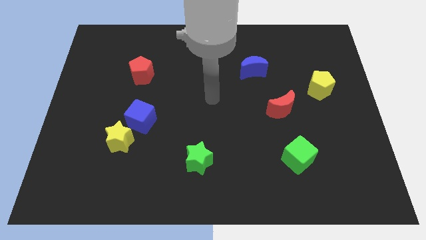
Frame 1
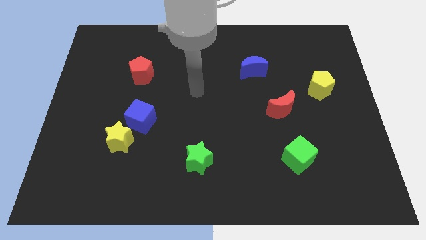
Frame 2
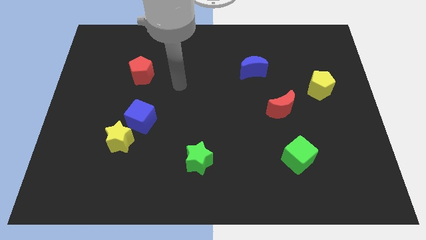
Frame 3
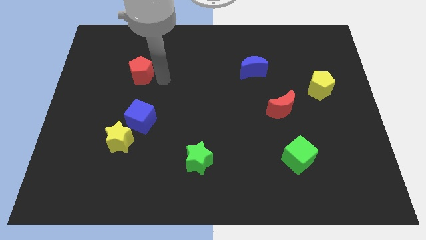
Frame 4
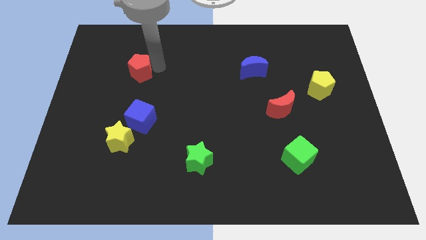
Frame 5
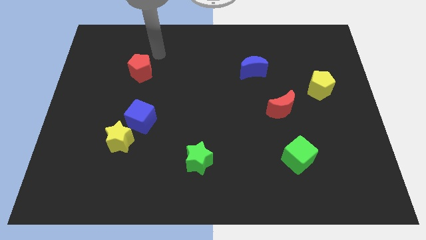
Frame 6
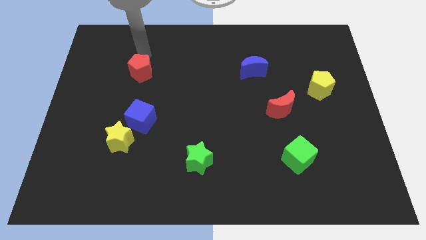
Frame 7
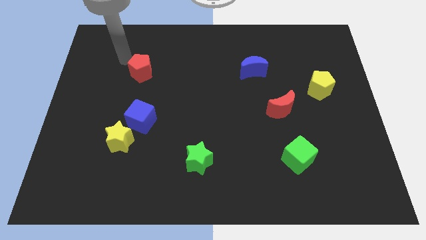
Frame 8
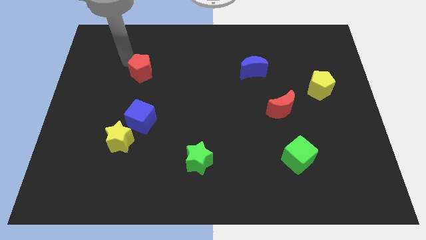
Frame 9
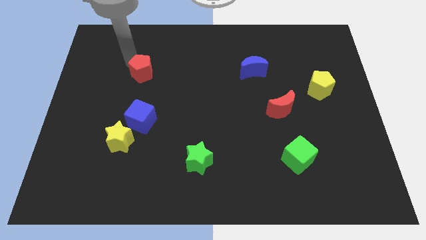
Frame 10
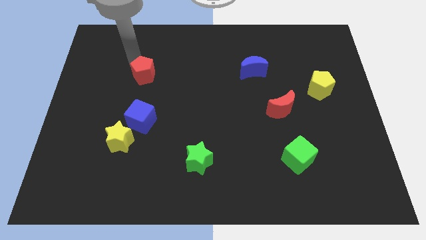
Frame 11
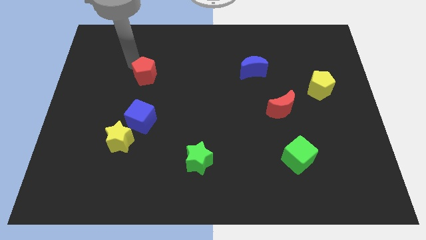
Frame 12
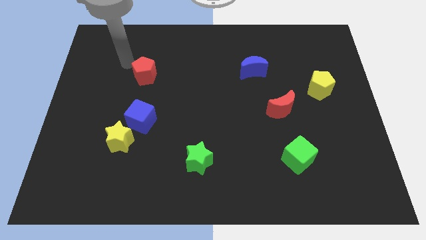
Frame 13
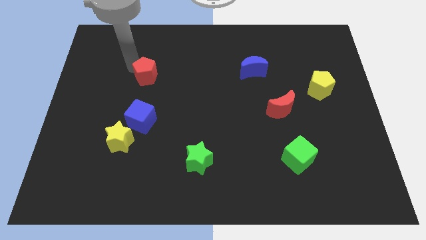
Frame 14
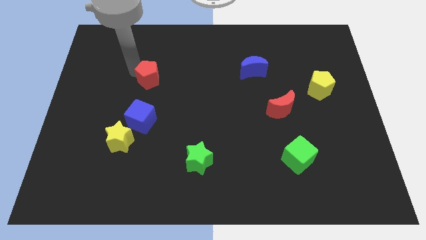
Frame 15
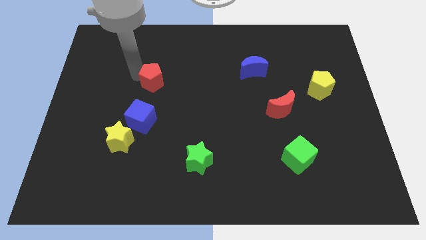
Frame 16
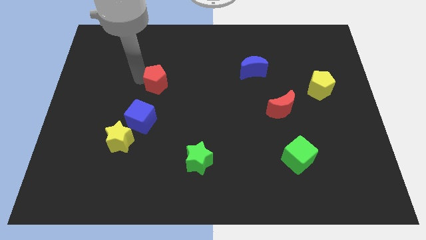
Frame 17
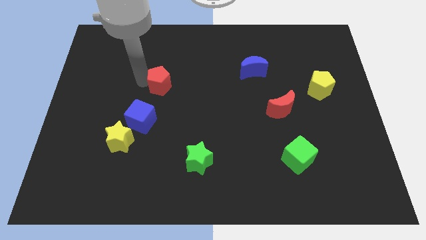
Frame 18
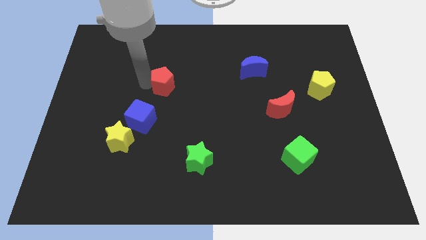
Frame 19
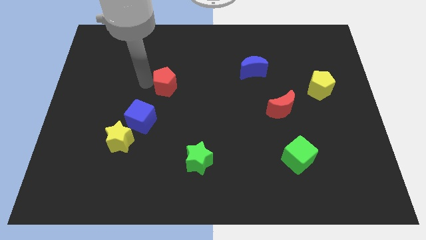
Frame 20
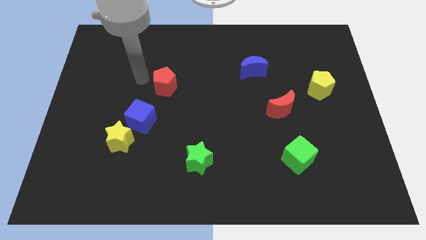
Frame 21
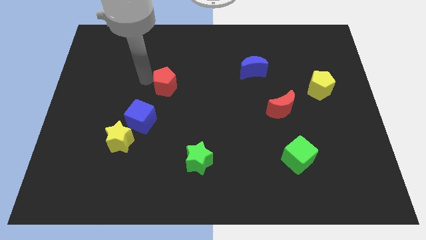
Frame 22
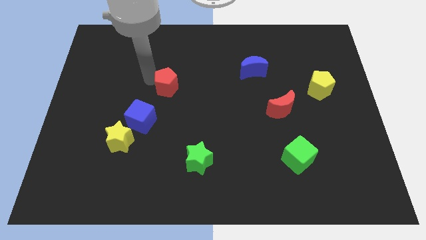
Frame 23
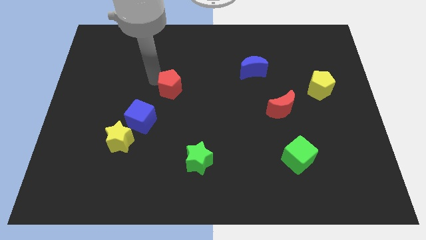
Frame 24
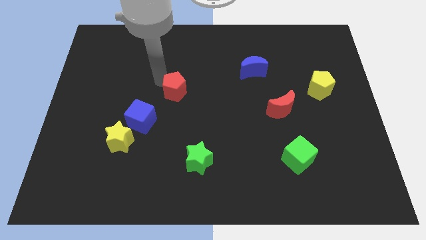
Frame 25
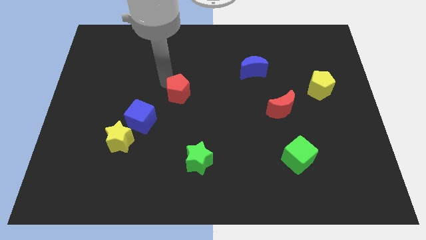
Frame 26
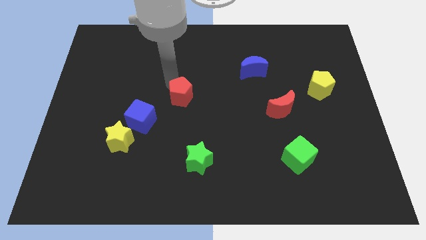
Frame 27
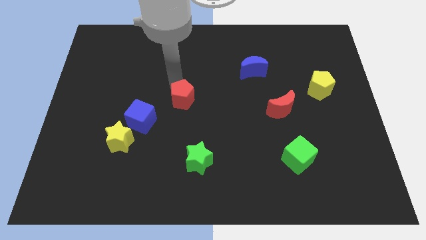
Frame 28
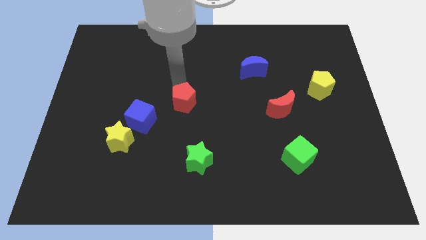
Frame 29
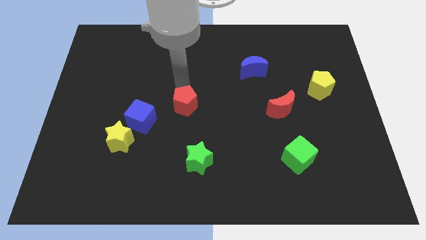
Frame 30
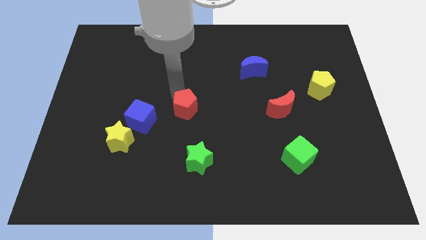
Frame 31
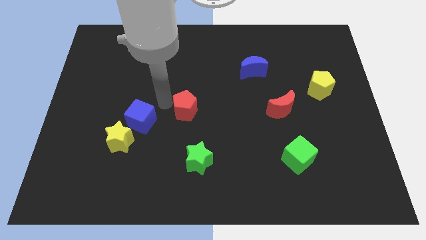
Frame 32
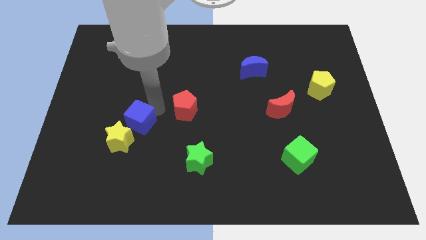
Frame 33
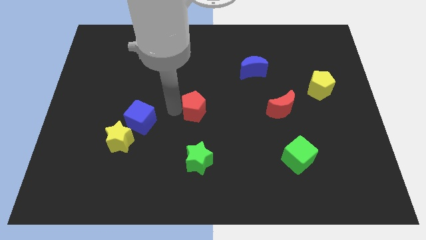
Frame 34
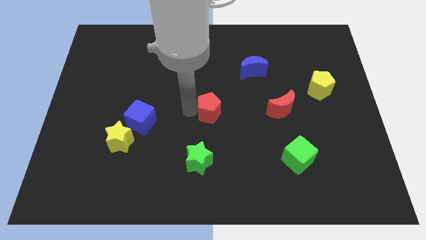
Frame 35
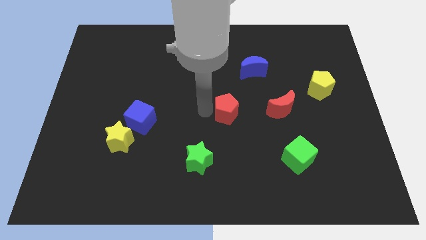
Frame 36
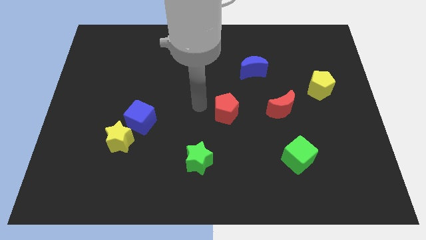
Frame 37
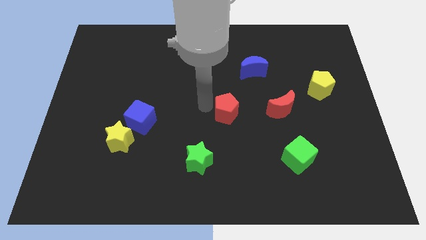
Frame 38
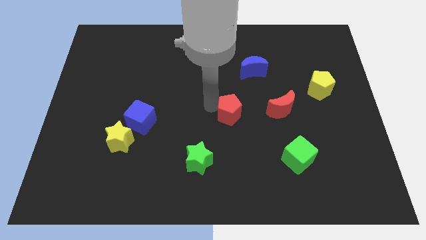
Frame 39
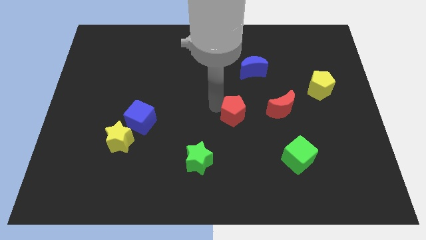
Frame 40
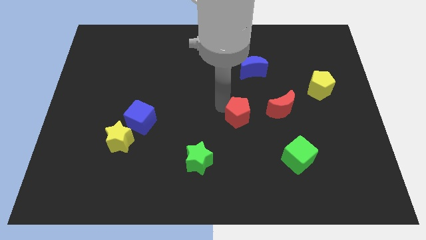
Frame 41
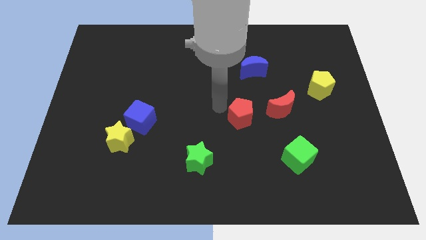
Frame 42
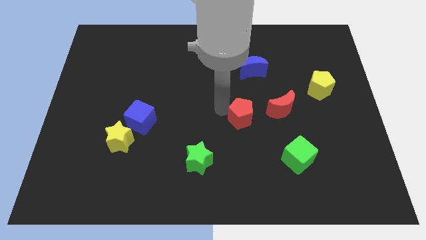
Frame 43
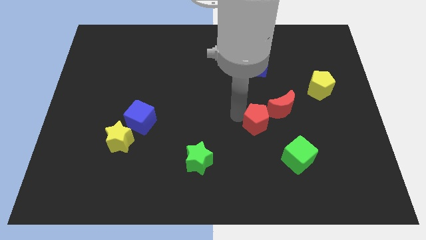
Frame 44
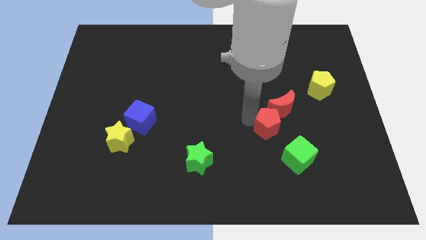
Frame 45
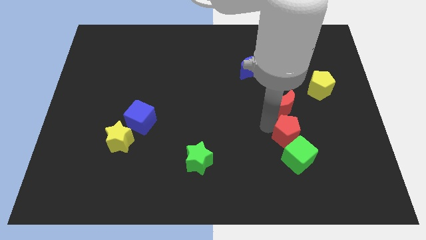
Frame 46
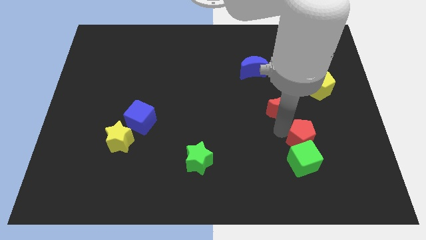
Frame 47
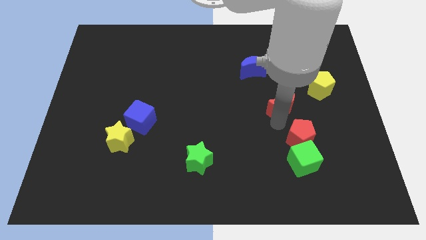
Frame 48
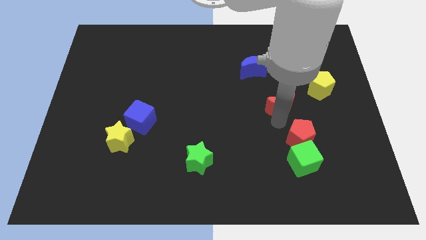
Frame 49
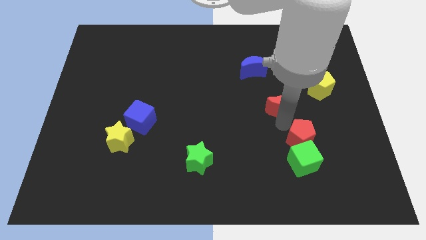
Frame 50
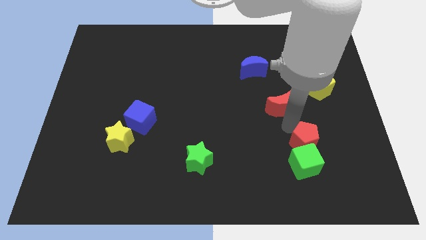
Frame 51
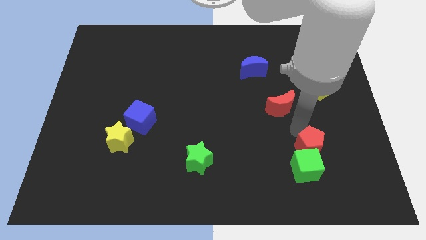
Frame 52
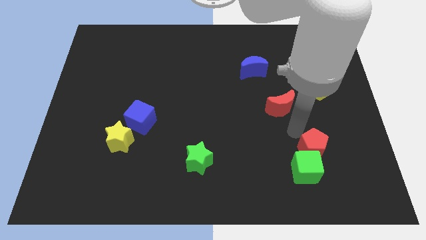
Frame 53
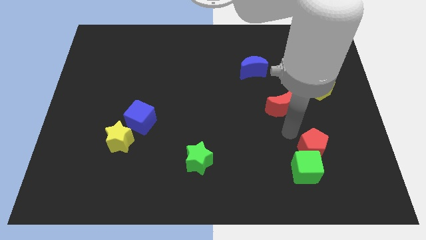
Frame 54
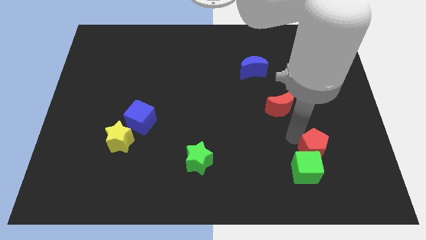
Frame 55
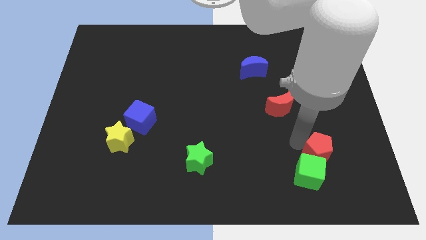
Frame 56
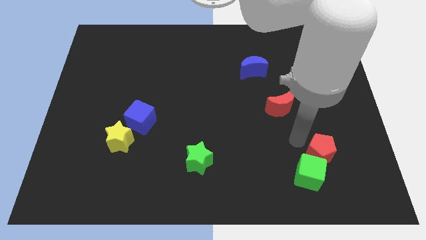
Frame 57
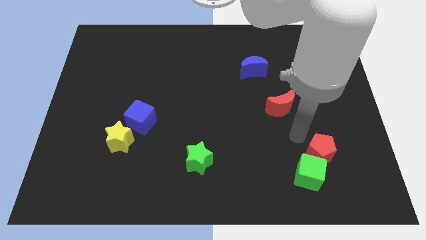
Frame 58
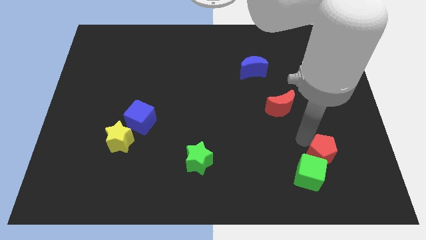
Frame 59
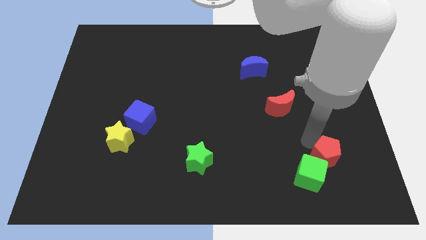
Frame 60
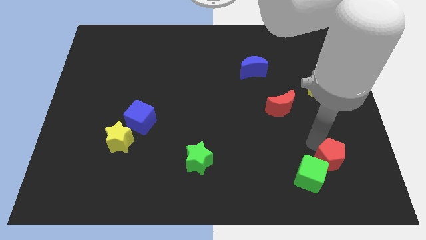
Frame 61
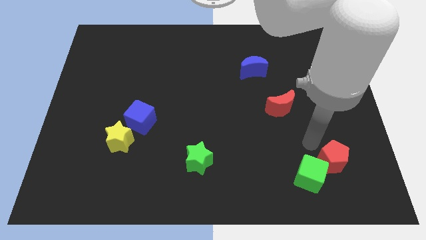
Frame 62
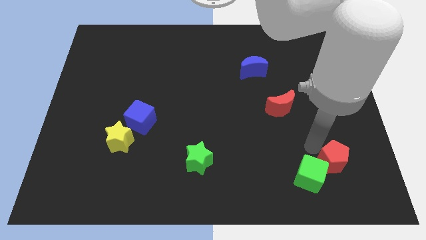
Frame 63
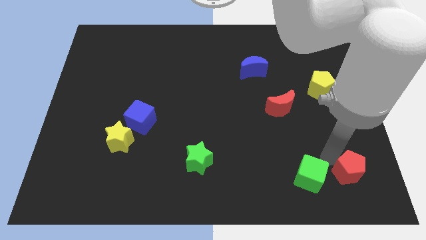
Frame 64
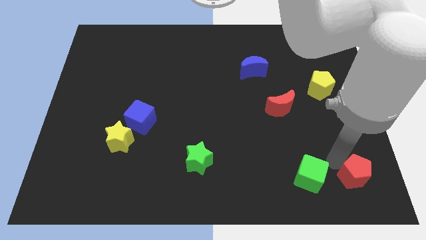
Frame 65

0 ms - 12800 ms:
push the red pentagon to the bottom right corner
